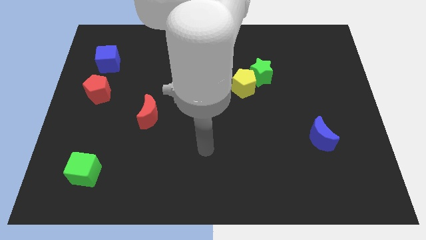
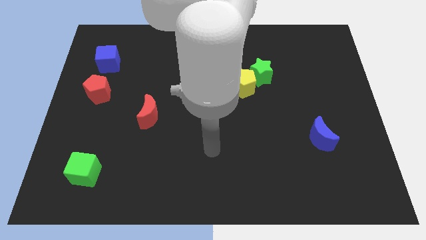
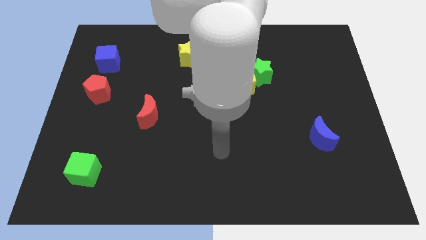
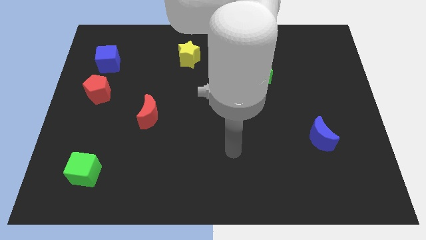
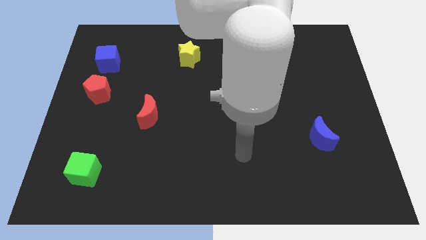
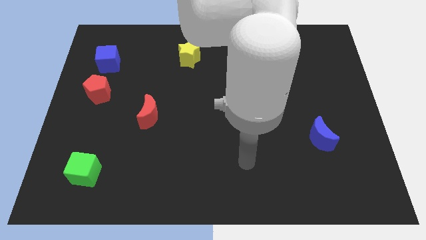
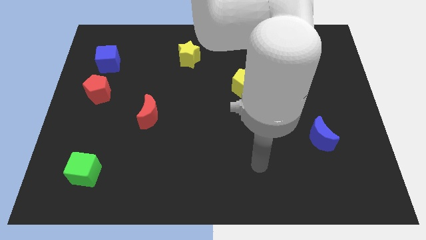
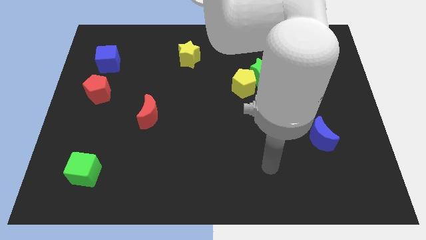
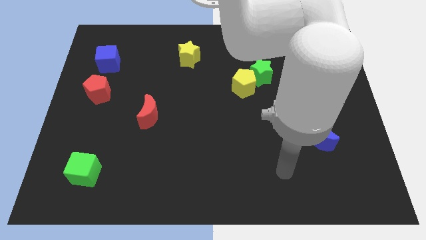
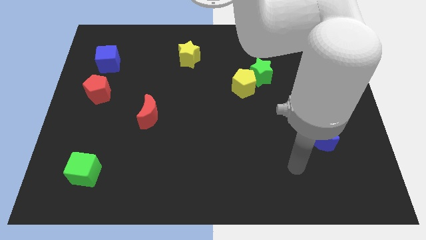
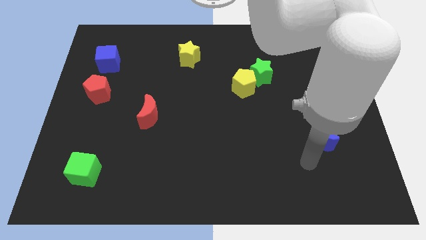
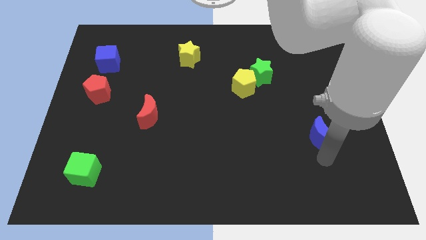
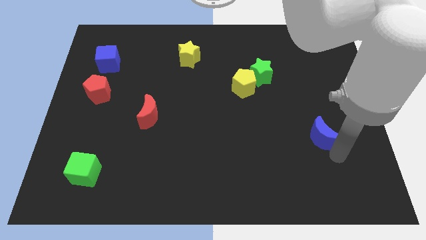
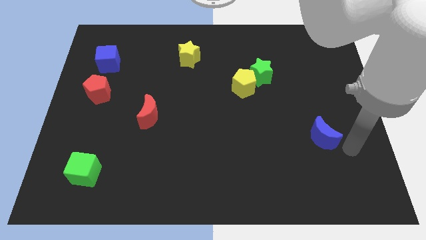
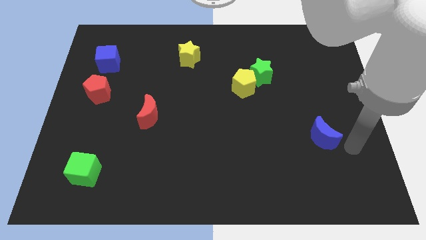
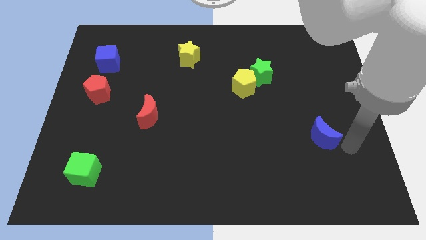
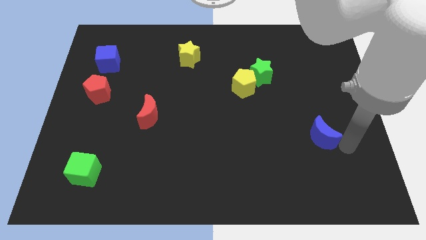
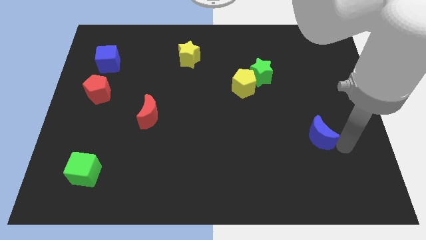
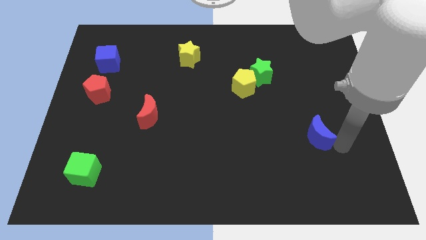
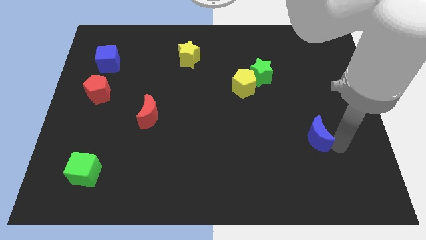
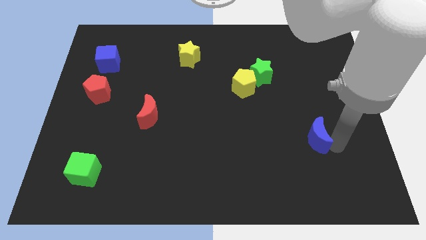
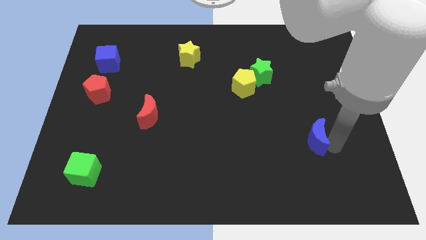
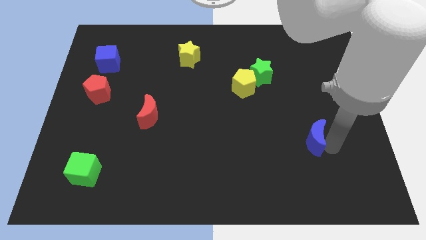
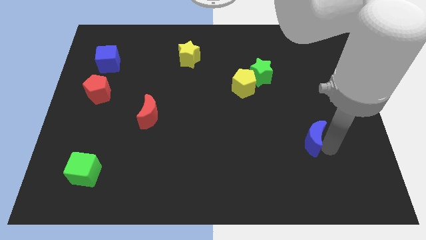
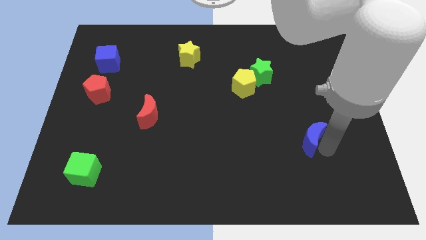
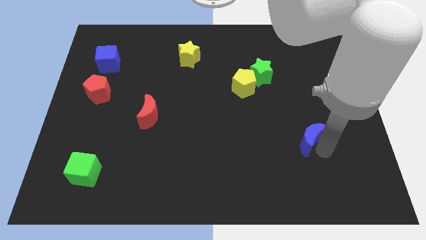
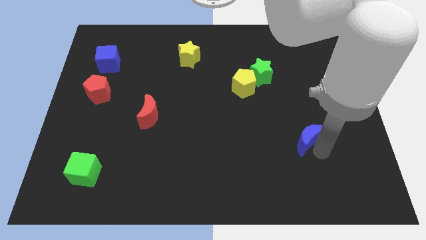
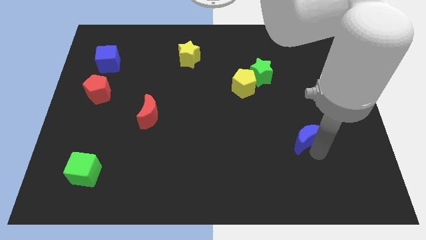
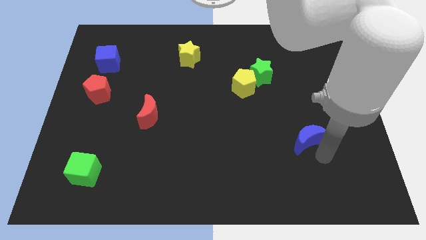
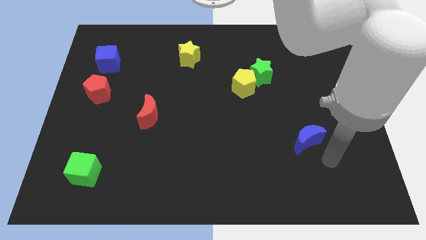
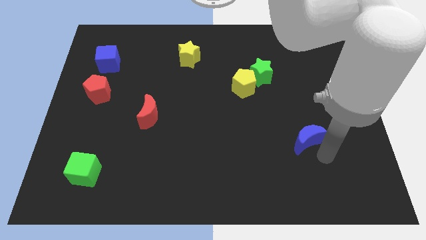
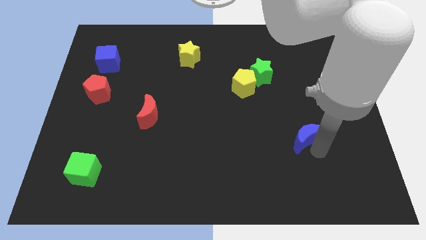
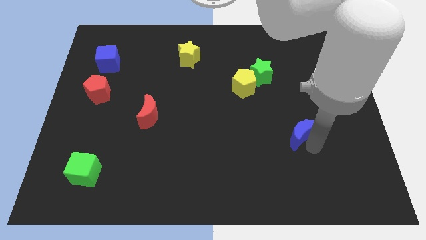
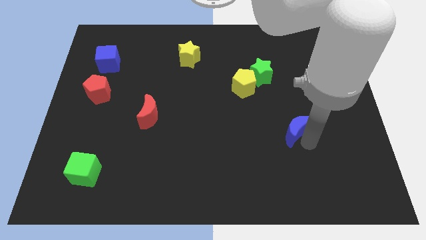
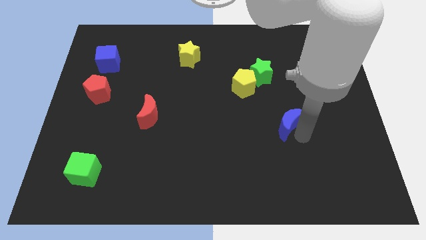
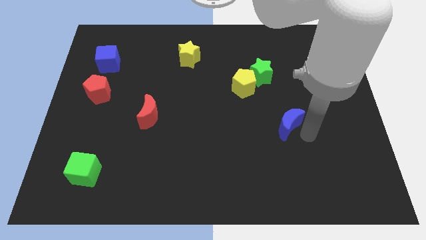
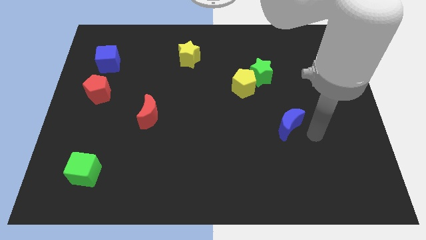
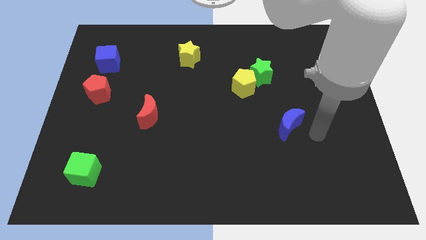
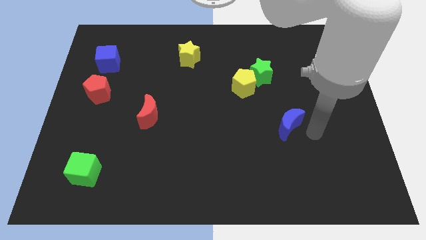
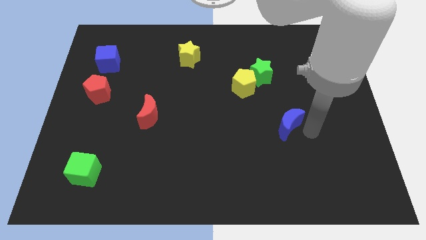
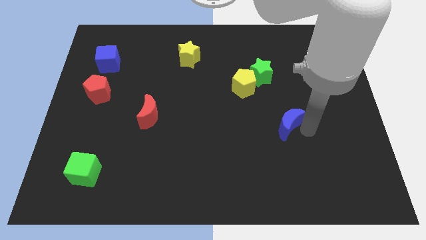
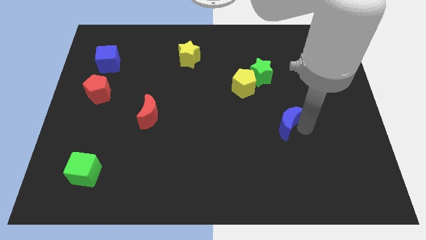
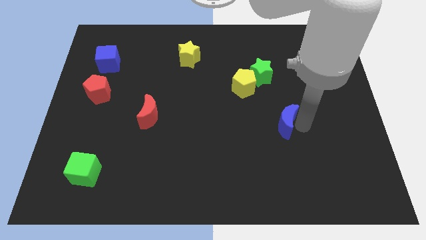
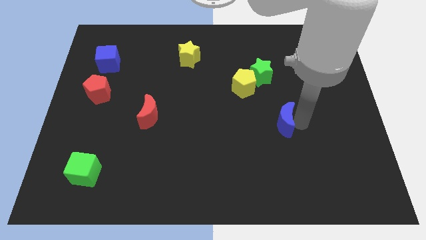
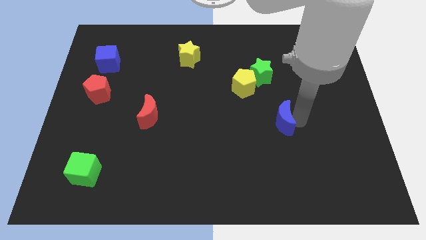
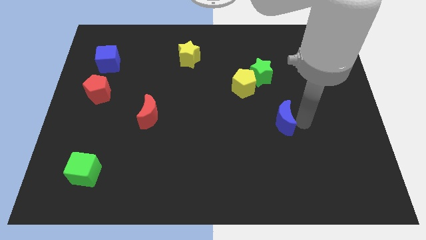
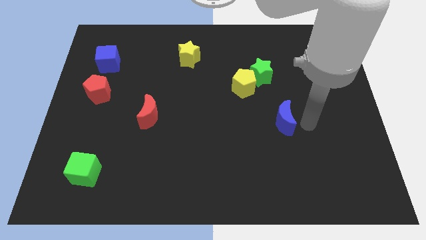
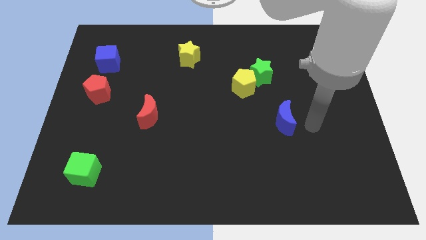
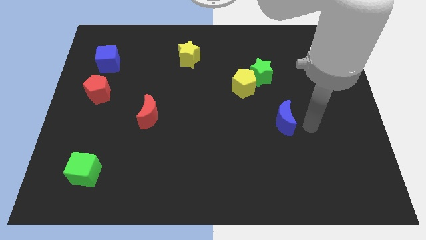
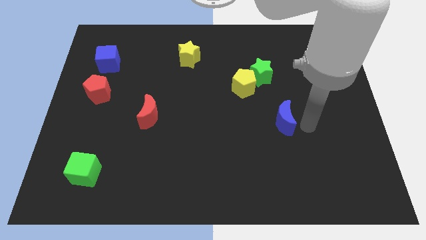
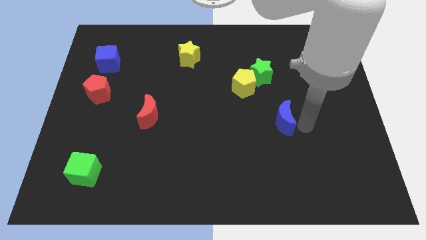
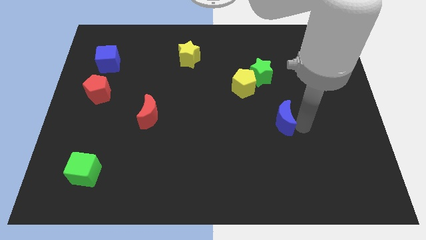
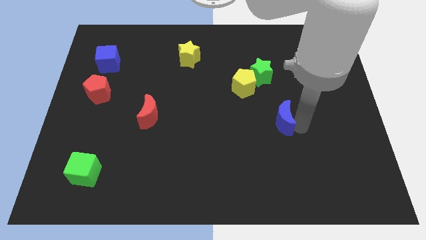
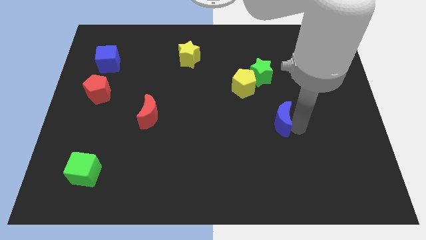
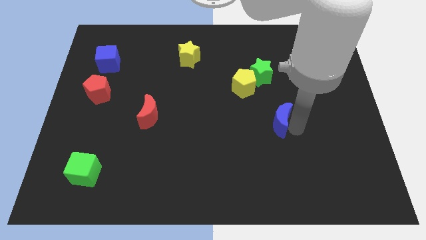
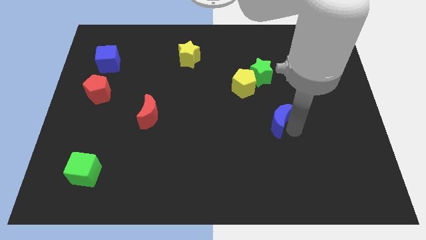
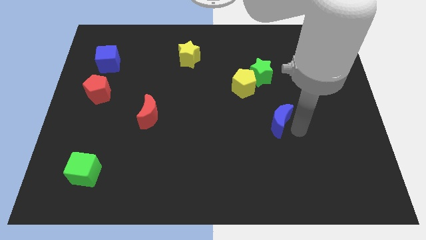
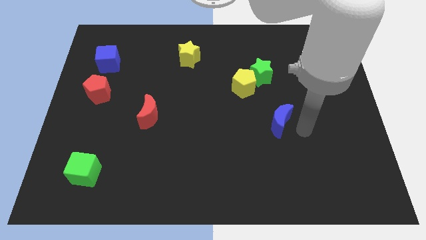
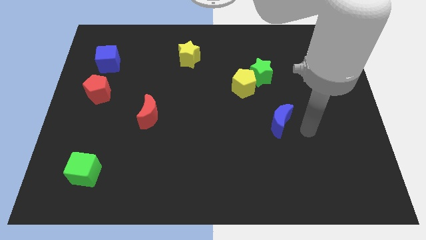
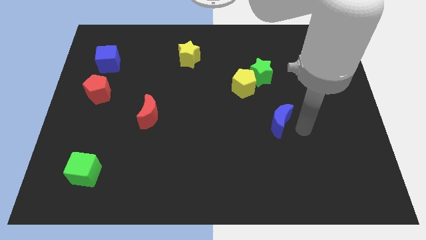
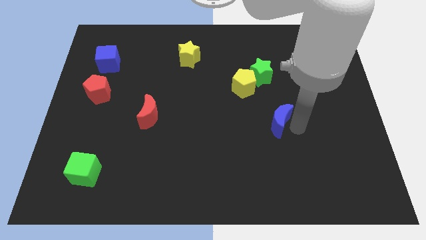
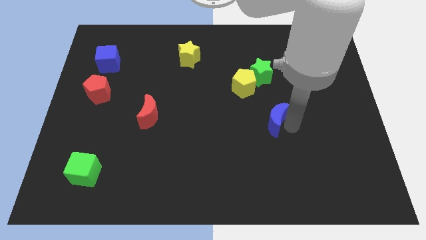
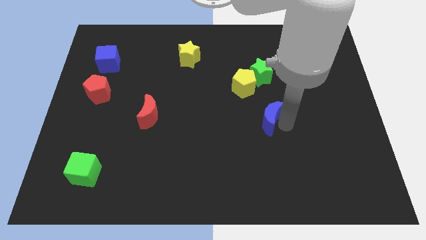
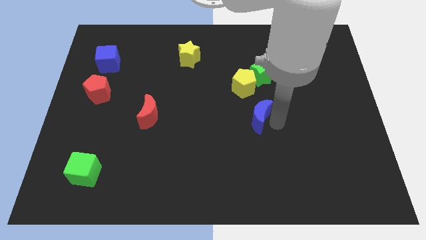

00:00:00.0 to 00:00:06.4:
push the blue moon to the center of the board

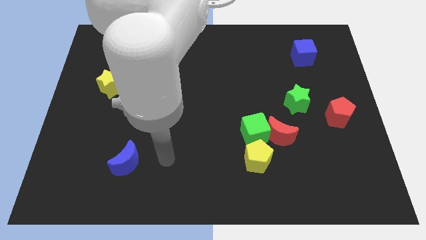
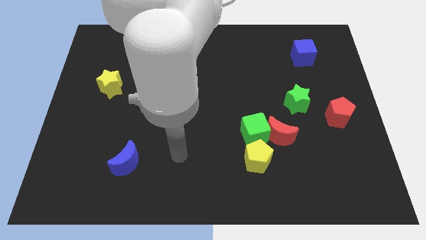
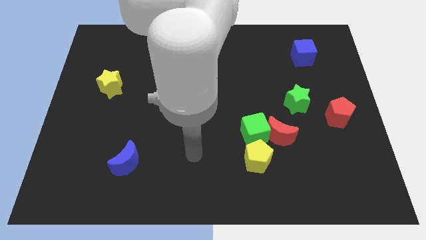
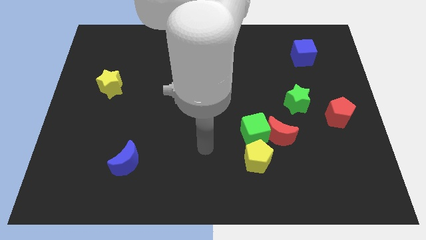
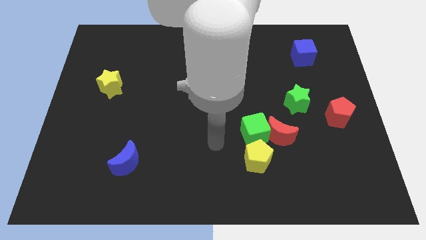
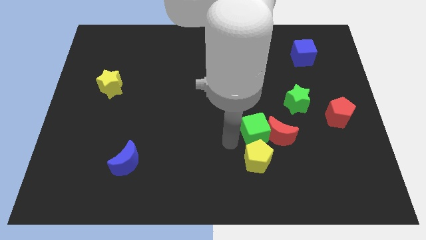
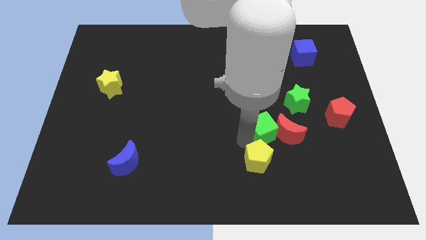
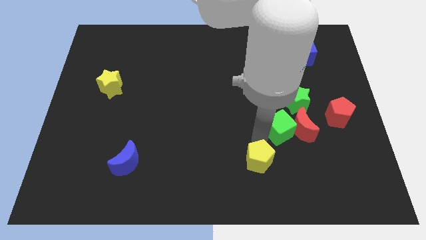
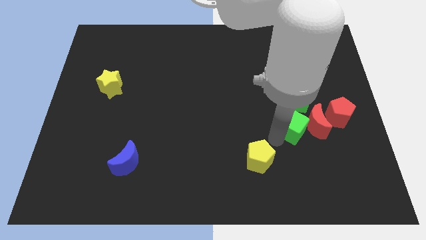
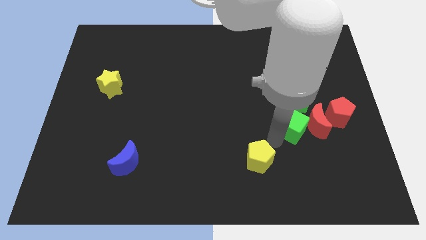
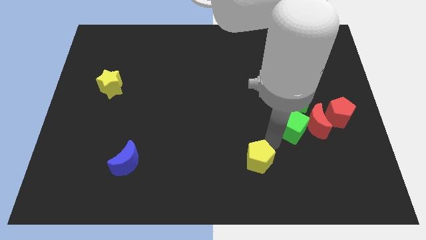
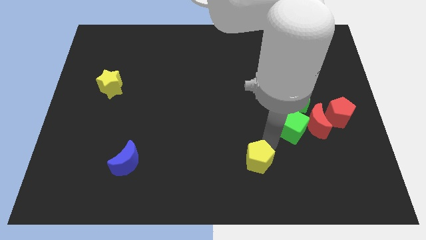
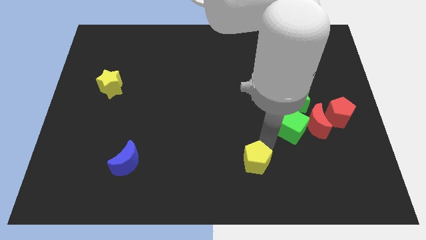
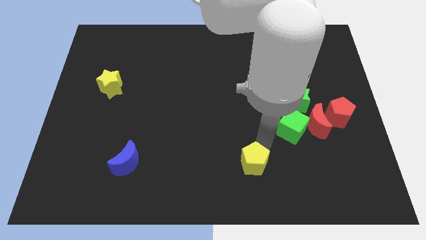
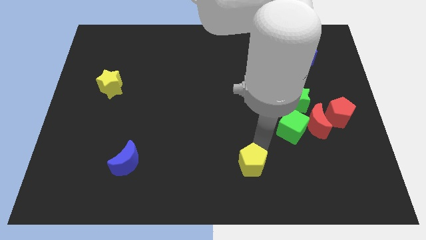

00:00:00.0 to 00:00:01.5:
slide the yellow pentagon to the bottom
